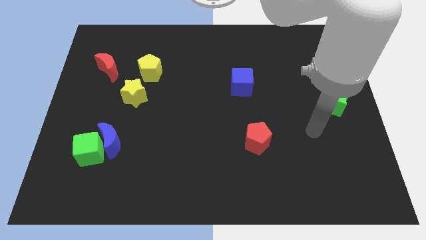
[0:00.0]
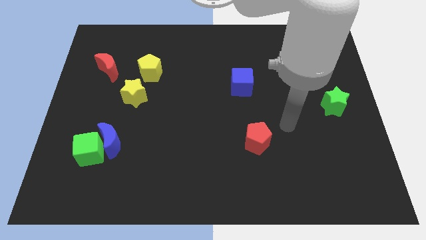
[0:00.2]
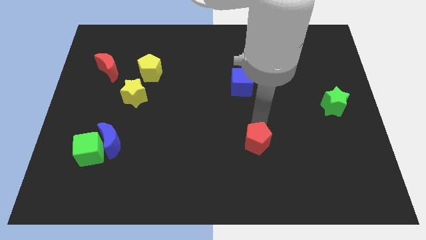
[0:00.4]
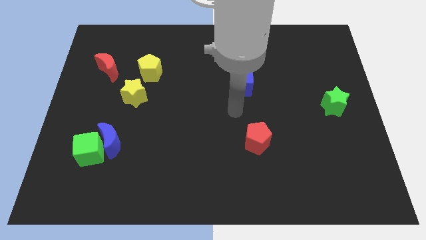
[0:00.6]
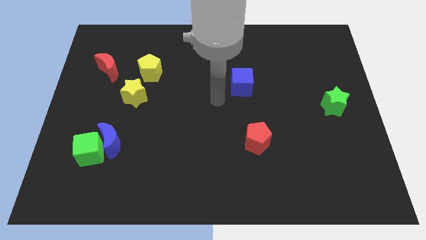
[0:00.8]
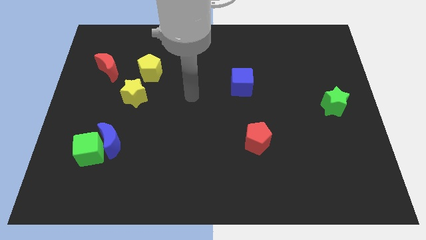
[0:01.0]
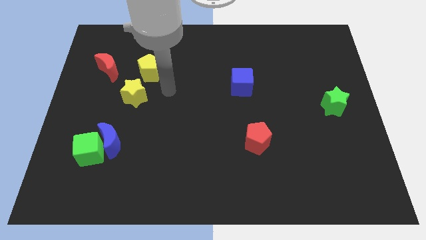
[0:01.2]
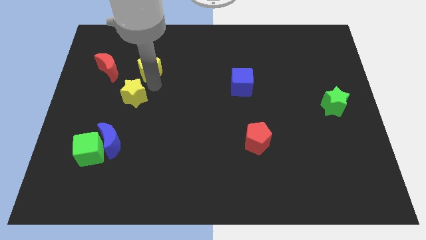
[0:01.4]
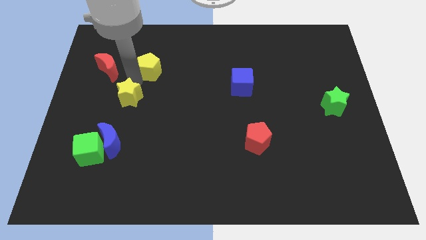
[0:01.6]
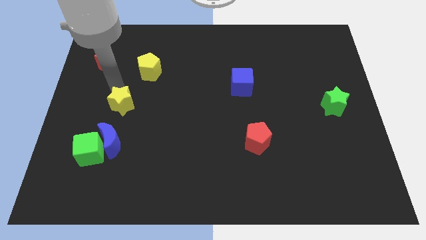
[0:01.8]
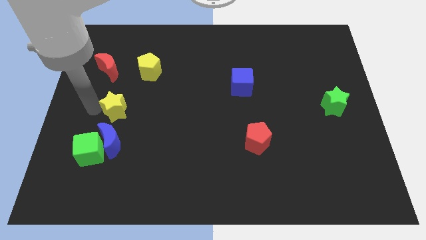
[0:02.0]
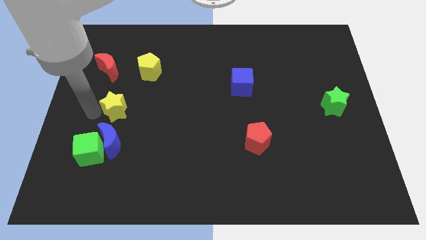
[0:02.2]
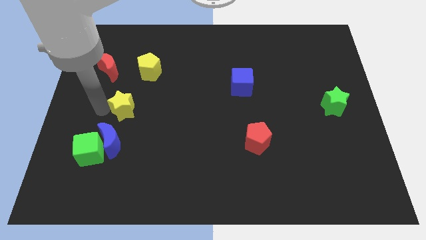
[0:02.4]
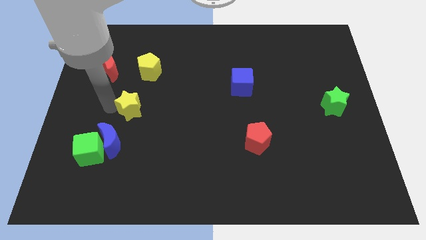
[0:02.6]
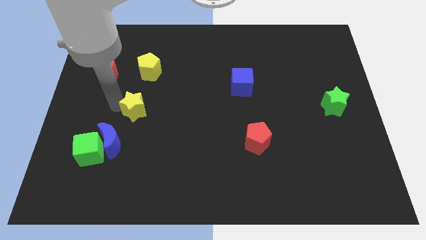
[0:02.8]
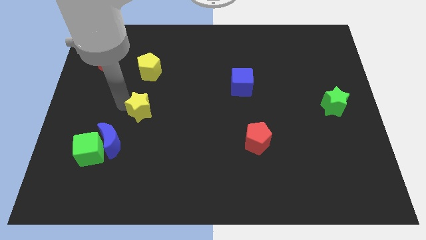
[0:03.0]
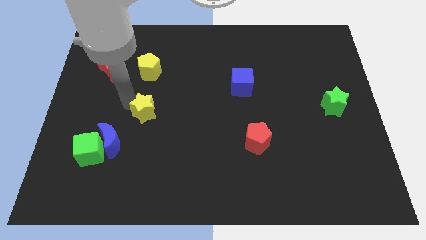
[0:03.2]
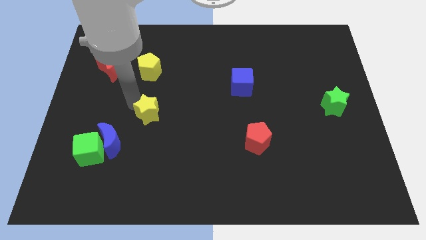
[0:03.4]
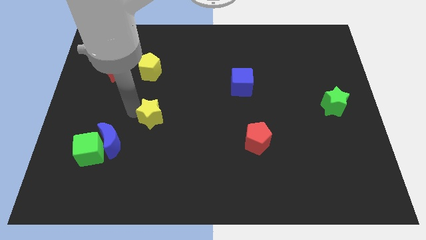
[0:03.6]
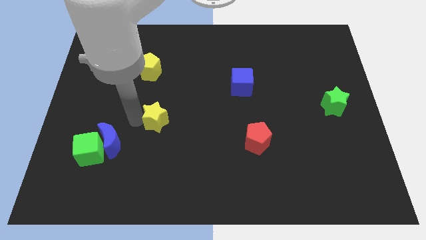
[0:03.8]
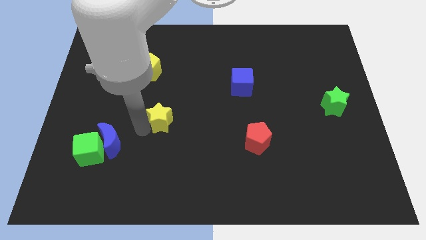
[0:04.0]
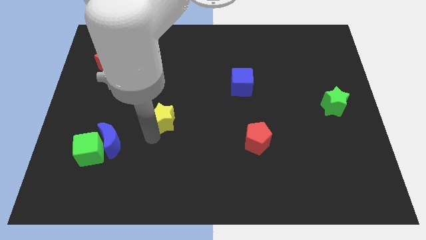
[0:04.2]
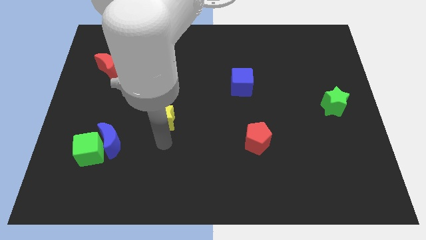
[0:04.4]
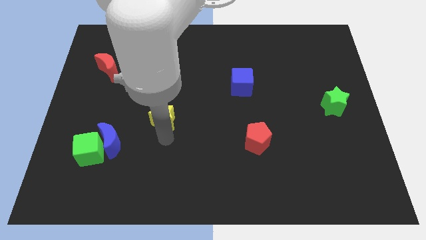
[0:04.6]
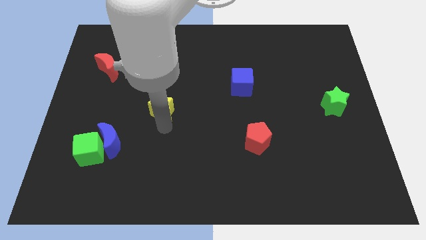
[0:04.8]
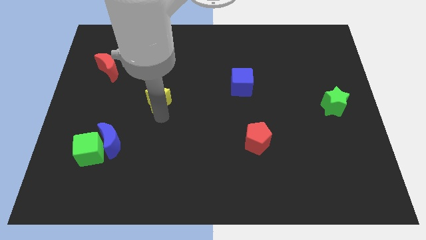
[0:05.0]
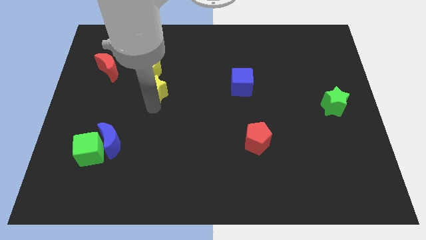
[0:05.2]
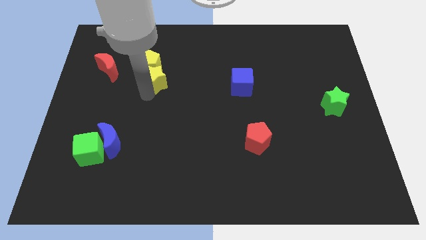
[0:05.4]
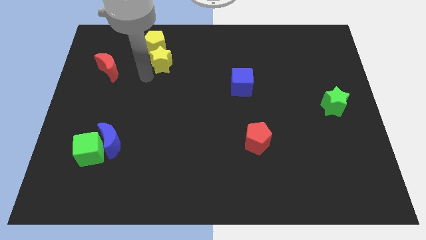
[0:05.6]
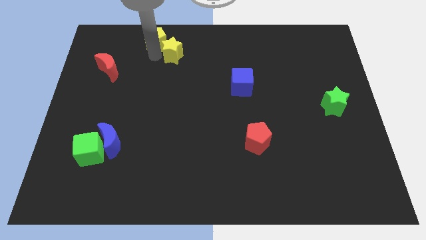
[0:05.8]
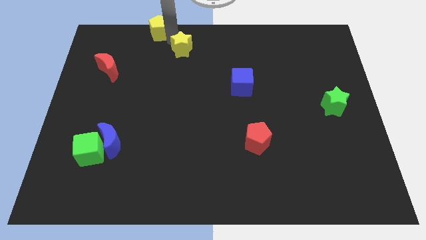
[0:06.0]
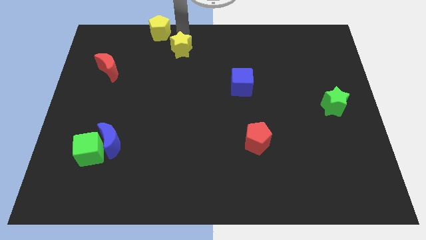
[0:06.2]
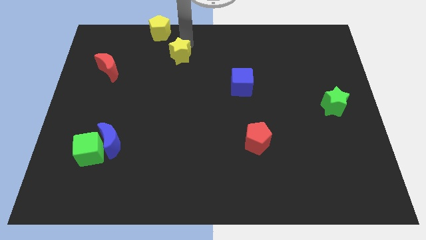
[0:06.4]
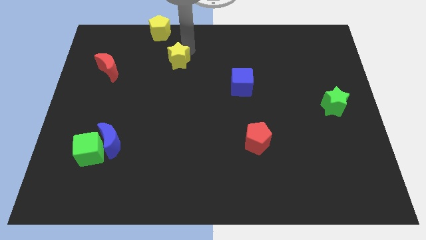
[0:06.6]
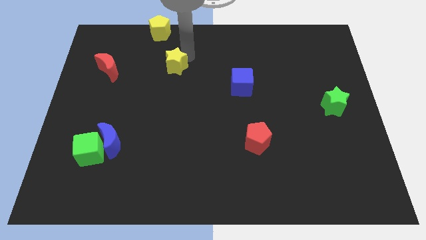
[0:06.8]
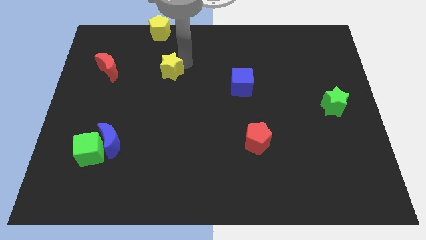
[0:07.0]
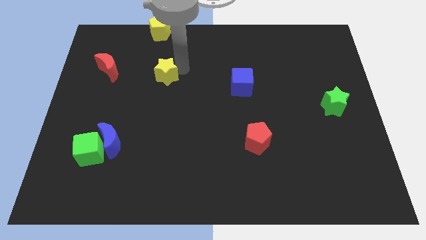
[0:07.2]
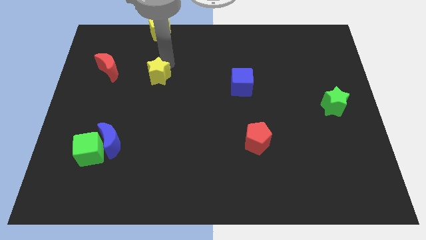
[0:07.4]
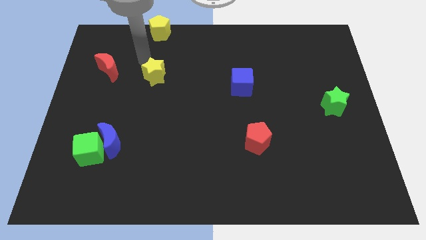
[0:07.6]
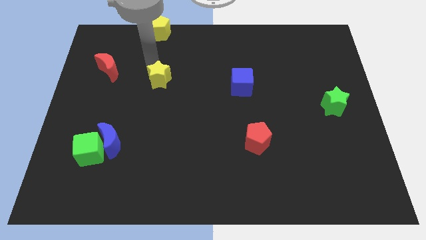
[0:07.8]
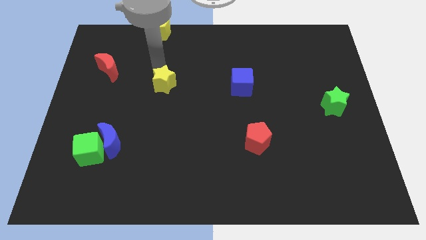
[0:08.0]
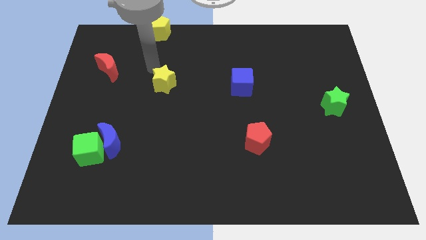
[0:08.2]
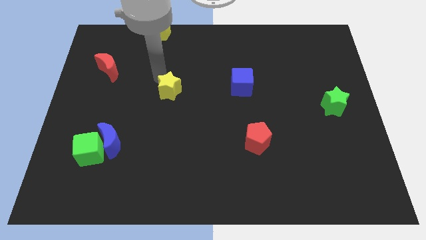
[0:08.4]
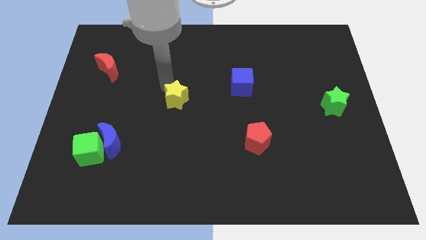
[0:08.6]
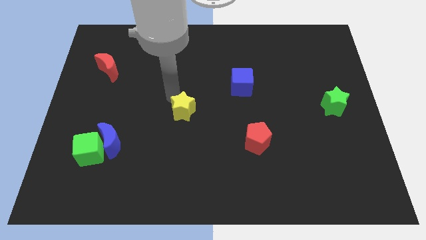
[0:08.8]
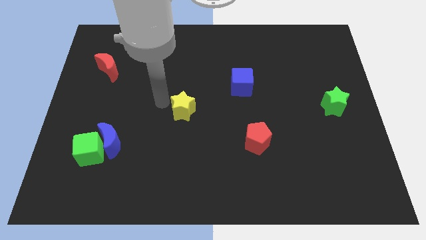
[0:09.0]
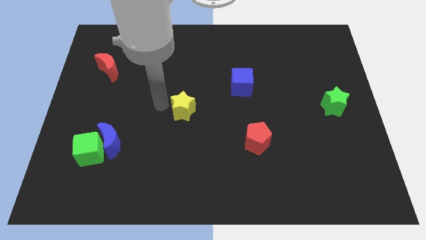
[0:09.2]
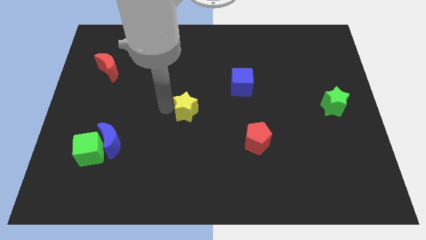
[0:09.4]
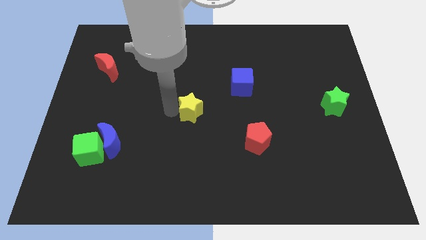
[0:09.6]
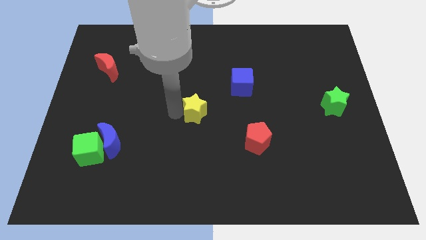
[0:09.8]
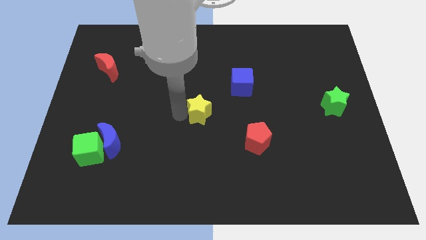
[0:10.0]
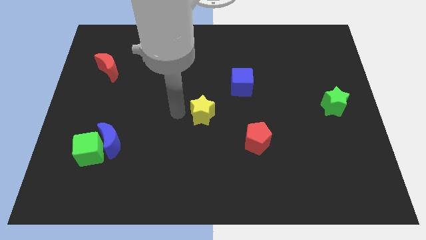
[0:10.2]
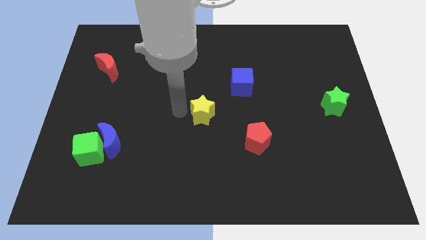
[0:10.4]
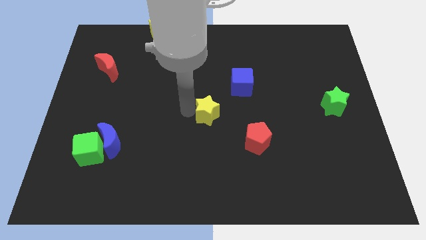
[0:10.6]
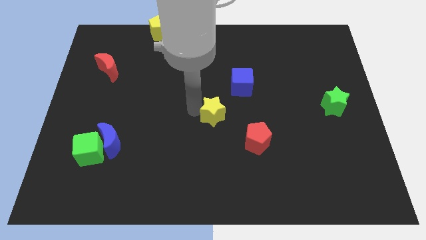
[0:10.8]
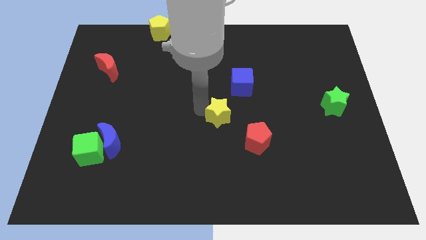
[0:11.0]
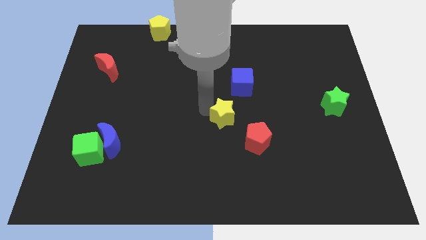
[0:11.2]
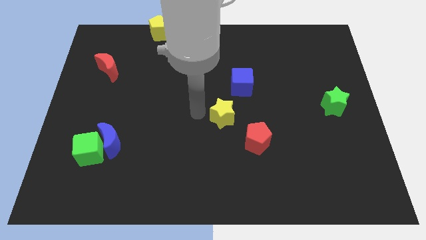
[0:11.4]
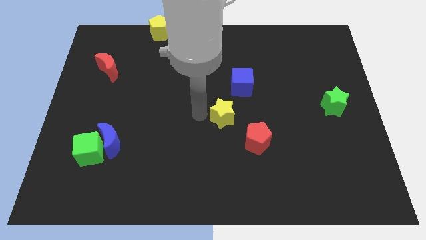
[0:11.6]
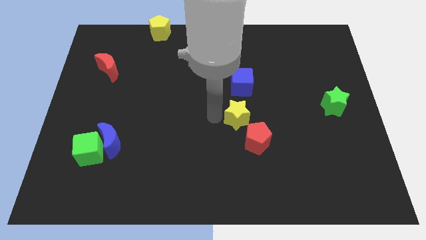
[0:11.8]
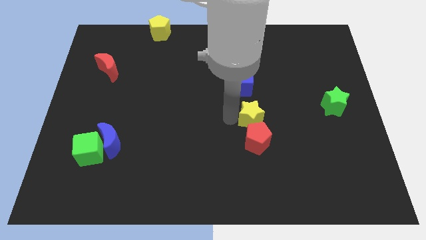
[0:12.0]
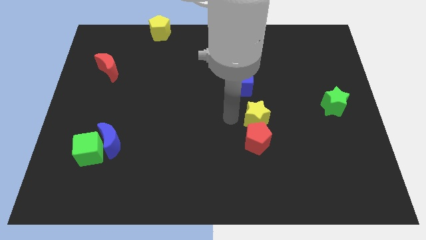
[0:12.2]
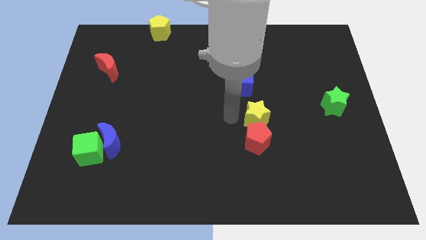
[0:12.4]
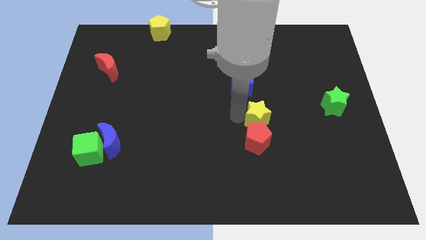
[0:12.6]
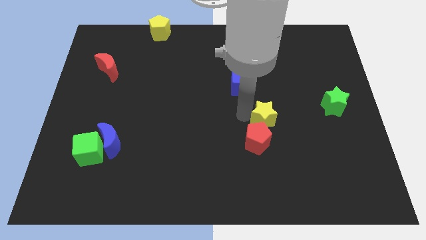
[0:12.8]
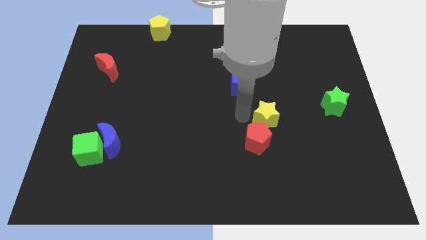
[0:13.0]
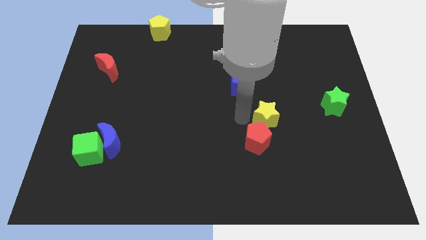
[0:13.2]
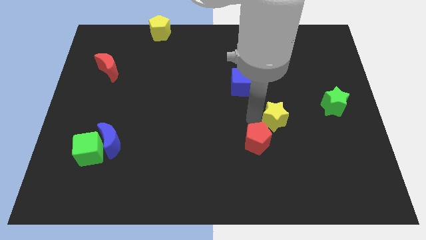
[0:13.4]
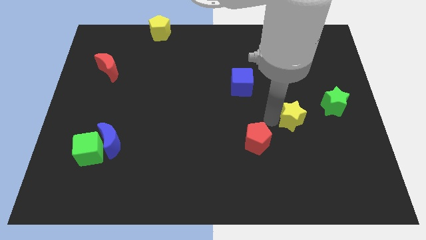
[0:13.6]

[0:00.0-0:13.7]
slide the yellow star to the bottom left of the green star
